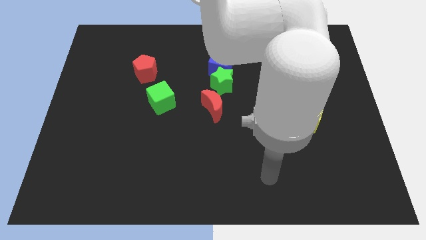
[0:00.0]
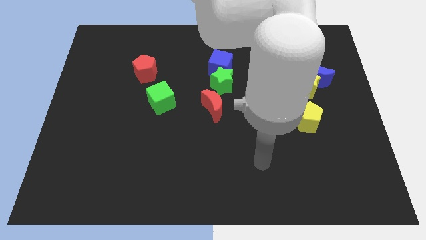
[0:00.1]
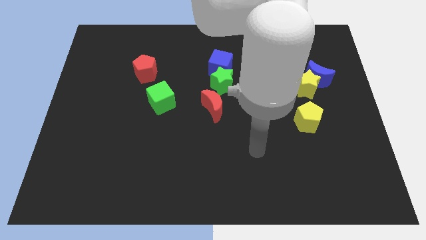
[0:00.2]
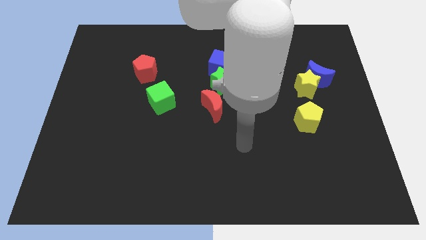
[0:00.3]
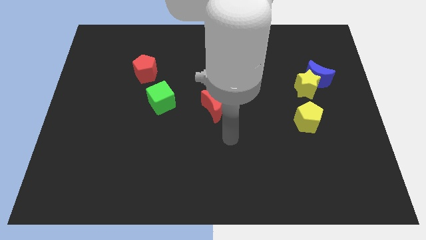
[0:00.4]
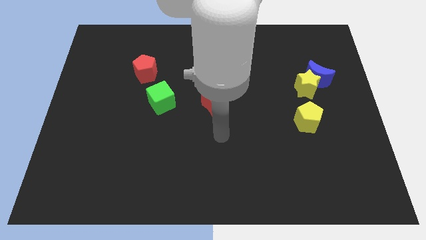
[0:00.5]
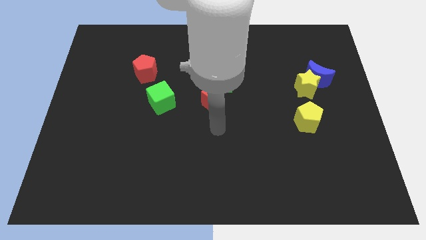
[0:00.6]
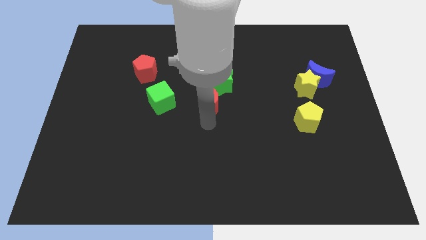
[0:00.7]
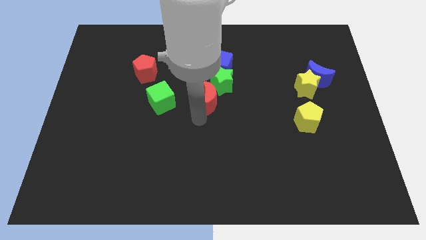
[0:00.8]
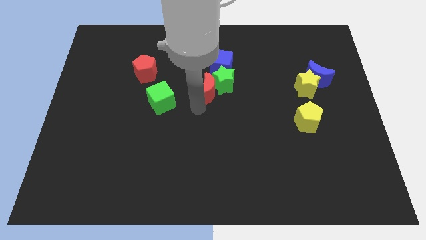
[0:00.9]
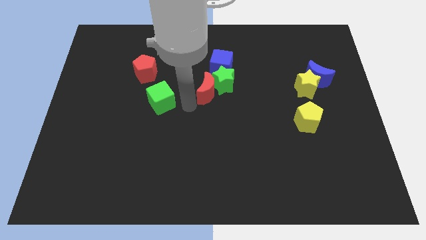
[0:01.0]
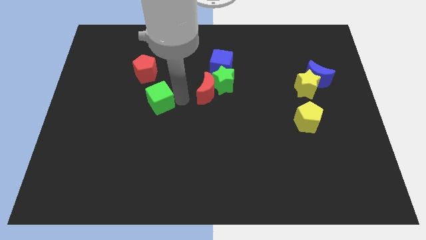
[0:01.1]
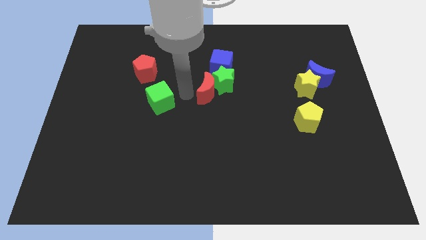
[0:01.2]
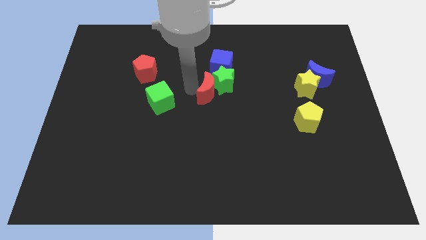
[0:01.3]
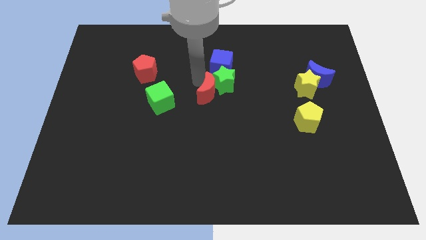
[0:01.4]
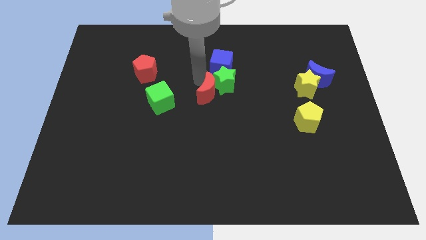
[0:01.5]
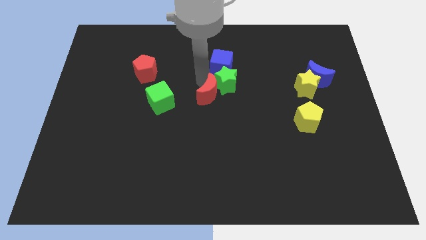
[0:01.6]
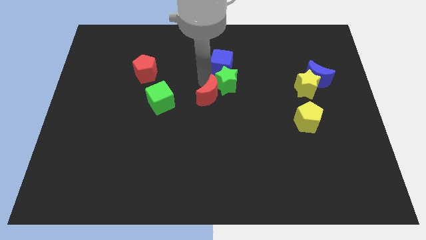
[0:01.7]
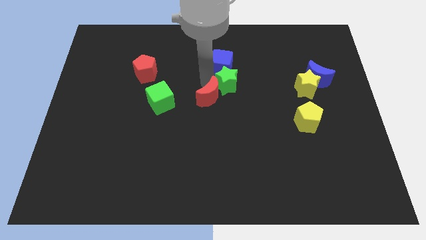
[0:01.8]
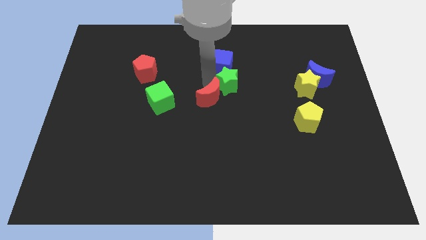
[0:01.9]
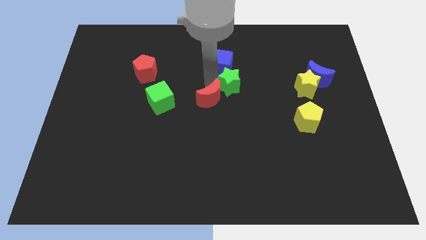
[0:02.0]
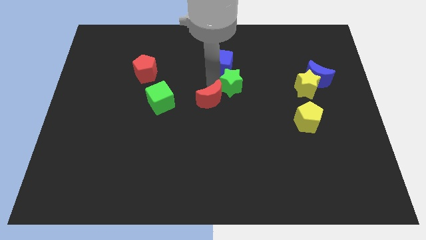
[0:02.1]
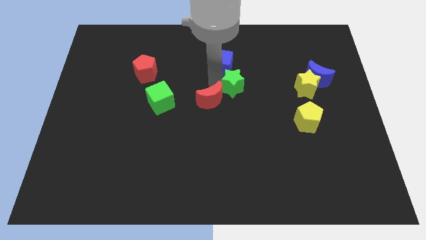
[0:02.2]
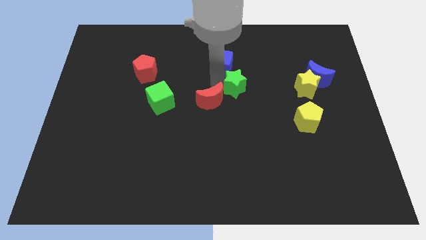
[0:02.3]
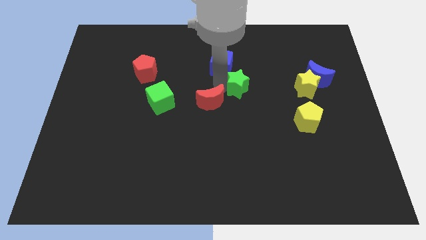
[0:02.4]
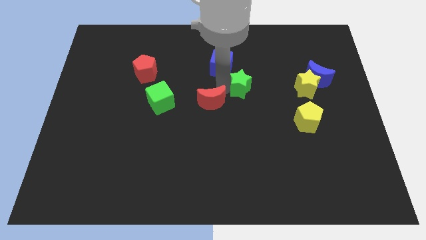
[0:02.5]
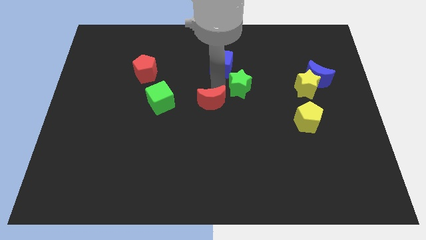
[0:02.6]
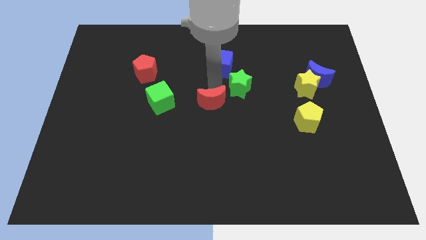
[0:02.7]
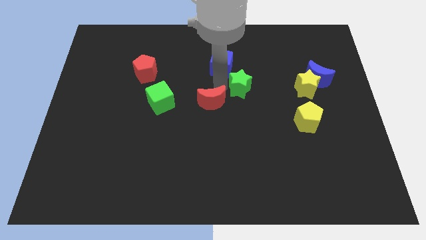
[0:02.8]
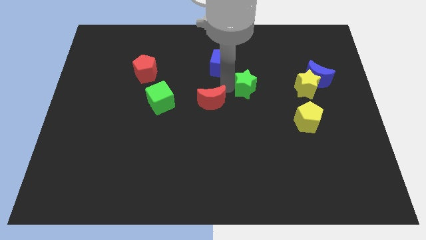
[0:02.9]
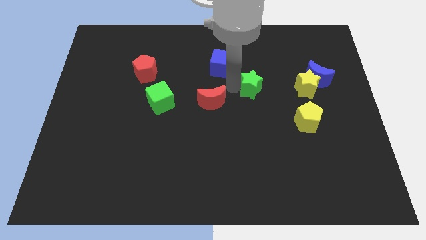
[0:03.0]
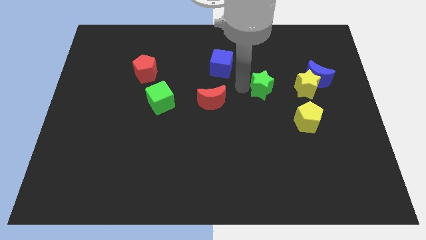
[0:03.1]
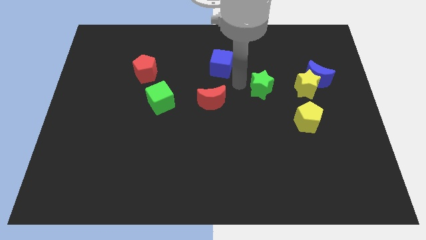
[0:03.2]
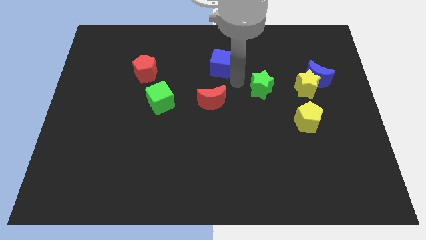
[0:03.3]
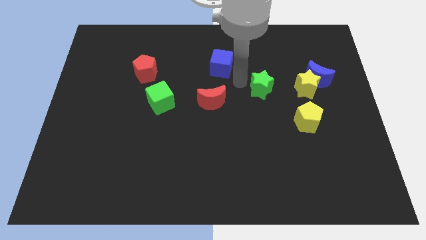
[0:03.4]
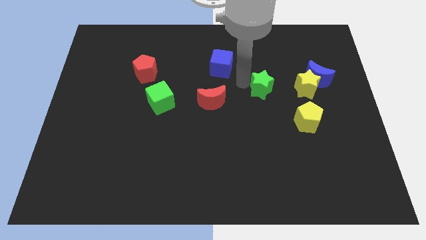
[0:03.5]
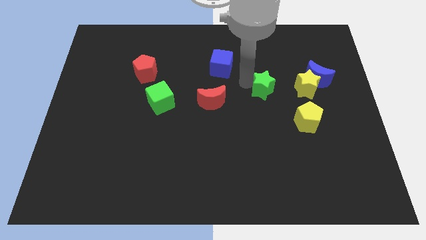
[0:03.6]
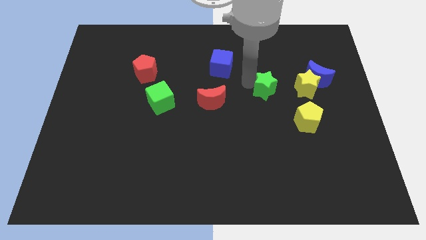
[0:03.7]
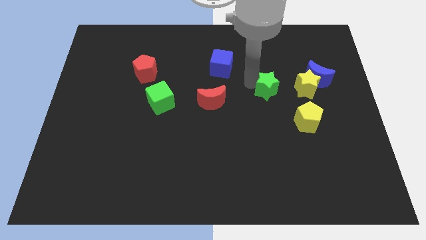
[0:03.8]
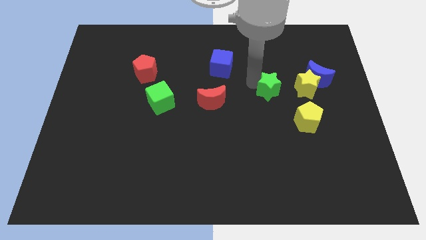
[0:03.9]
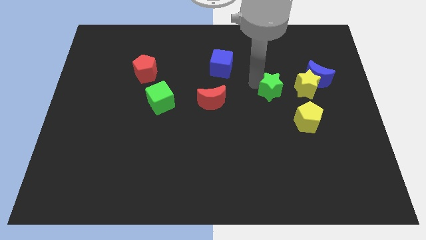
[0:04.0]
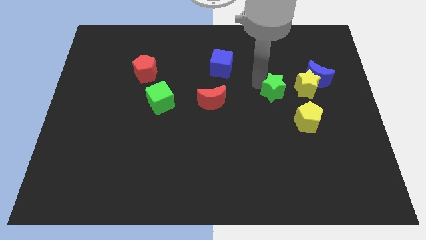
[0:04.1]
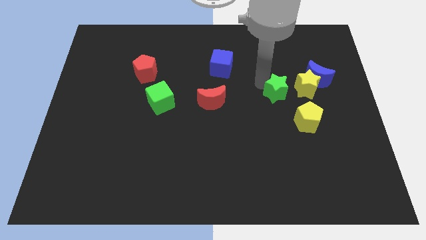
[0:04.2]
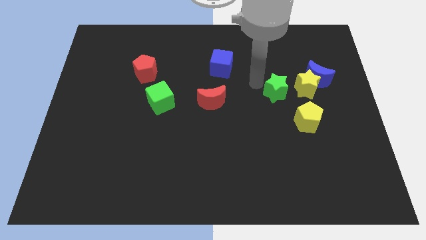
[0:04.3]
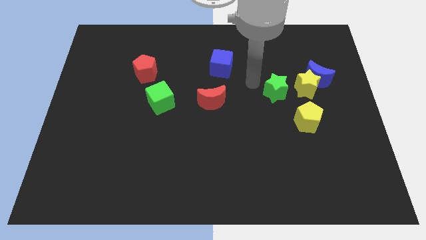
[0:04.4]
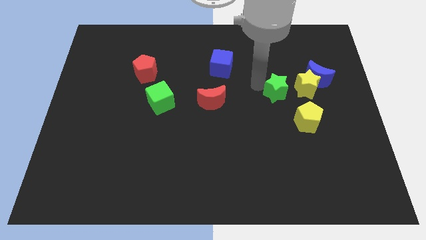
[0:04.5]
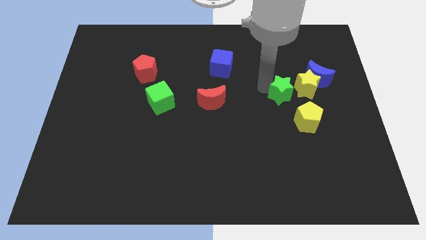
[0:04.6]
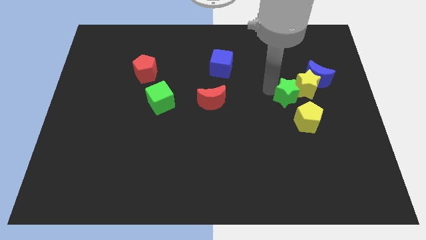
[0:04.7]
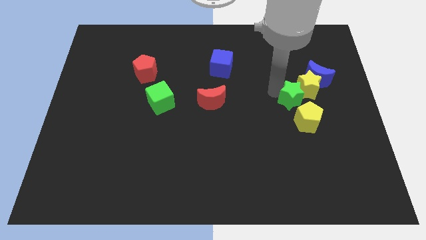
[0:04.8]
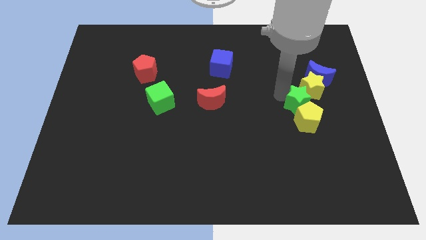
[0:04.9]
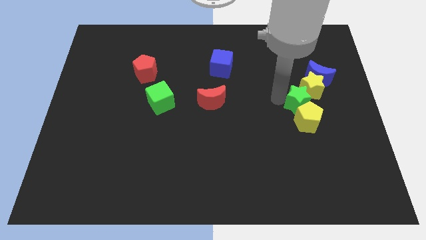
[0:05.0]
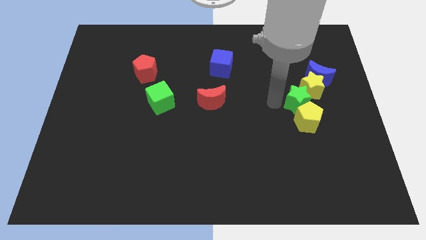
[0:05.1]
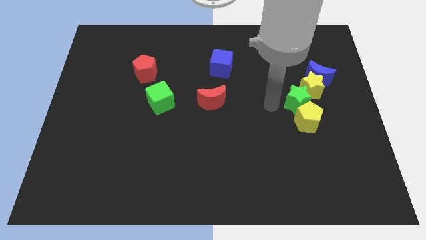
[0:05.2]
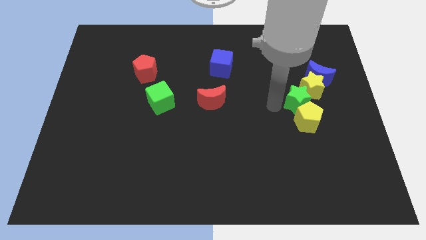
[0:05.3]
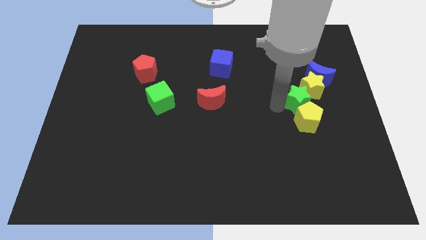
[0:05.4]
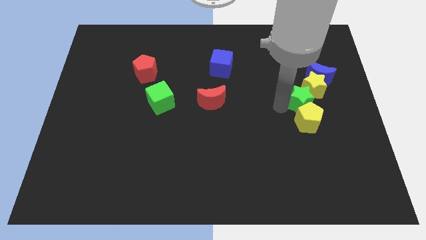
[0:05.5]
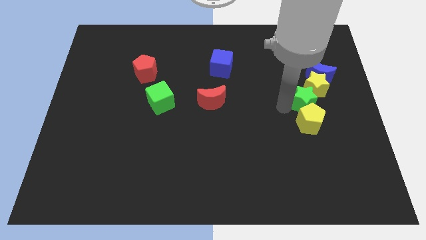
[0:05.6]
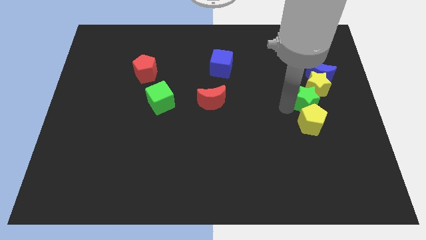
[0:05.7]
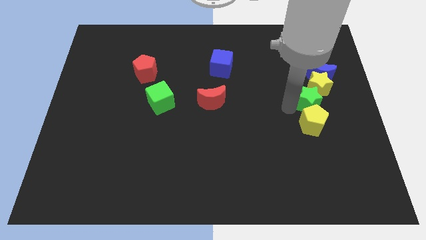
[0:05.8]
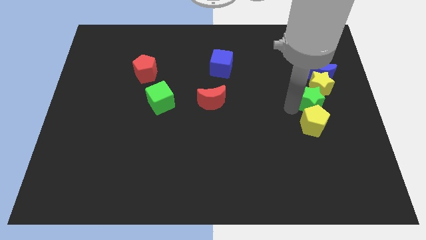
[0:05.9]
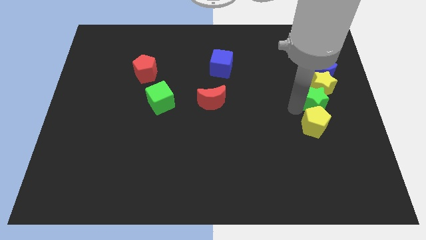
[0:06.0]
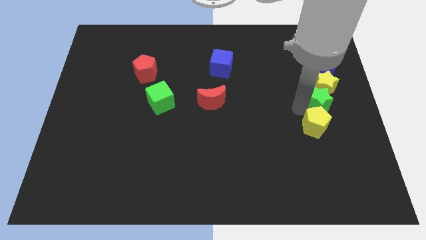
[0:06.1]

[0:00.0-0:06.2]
put the green star to the right side

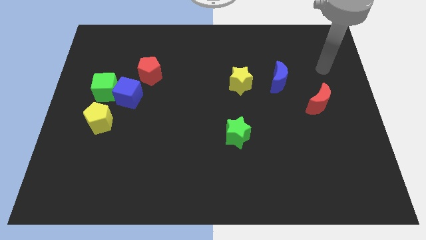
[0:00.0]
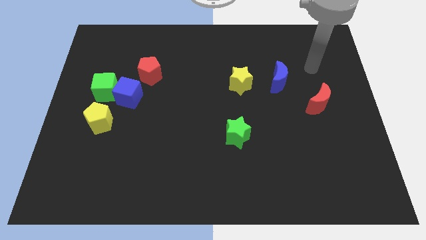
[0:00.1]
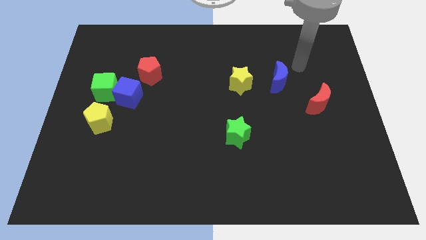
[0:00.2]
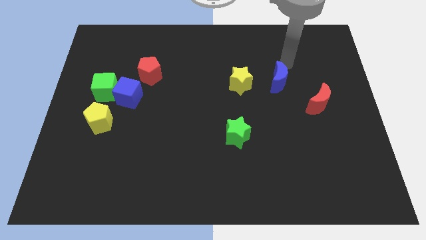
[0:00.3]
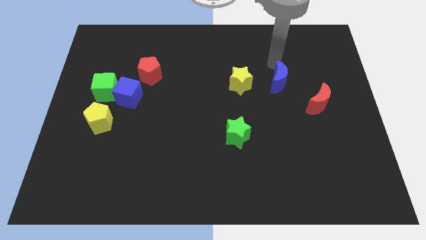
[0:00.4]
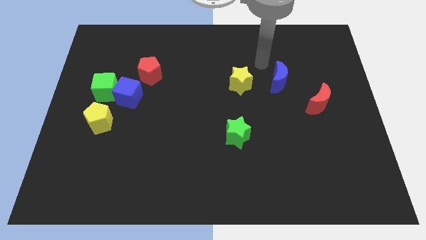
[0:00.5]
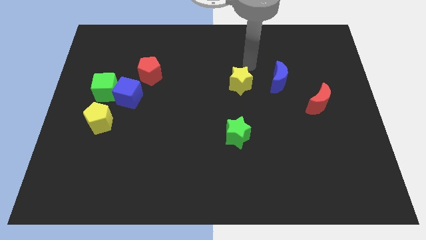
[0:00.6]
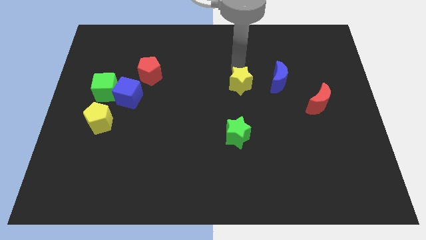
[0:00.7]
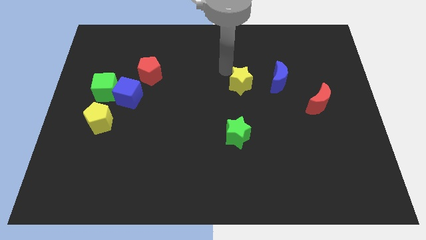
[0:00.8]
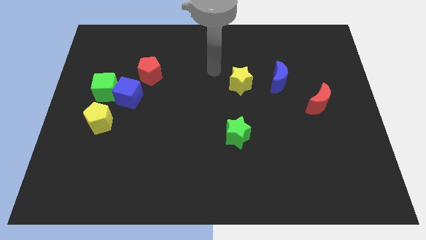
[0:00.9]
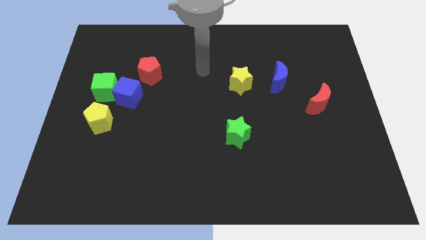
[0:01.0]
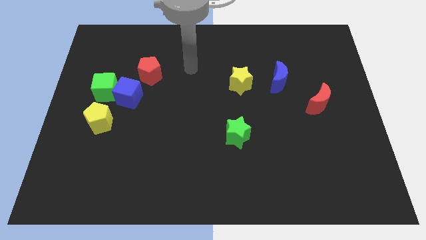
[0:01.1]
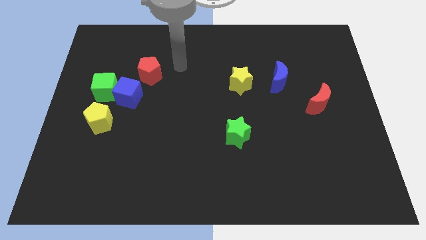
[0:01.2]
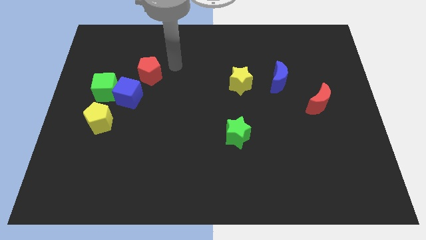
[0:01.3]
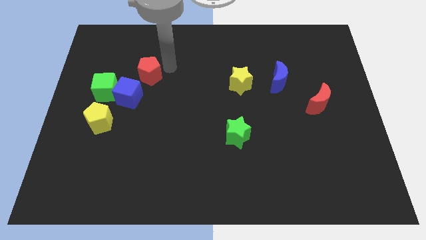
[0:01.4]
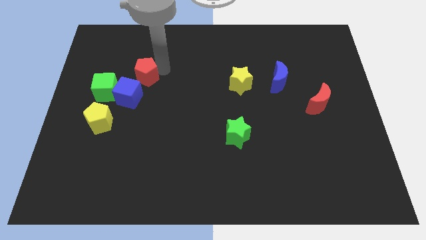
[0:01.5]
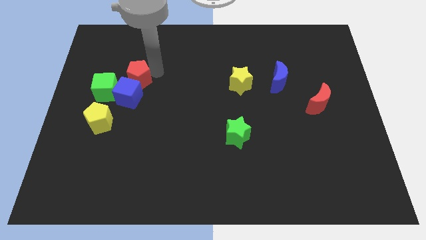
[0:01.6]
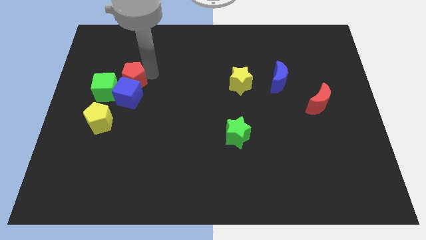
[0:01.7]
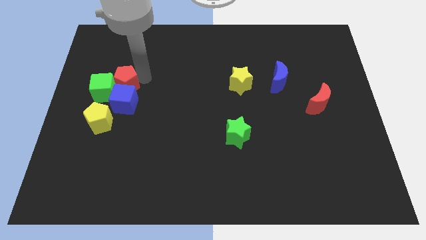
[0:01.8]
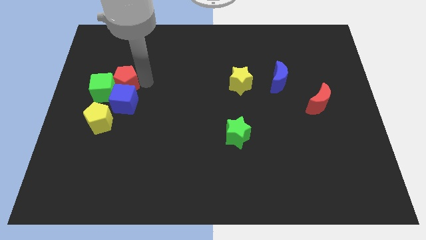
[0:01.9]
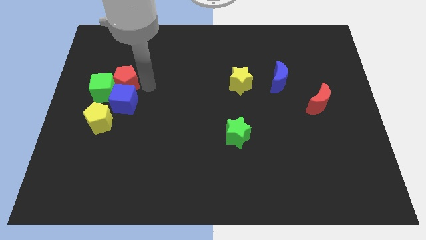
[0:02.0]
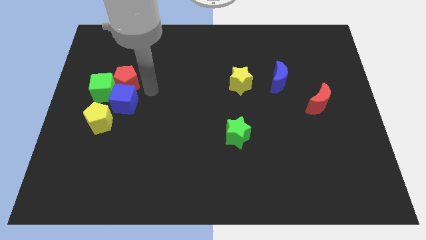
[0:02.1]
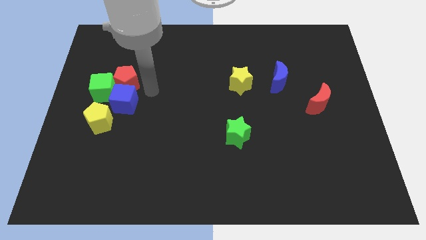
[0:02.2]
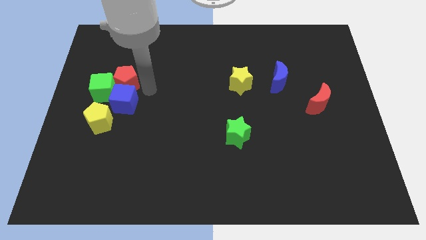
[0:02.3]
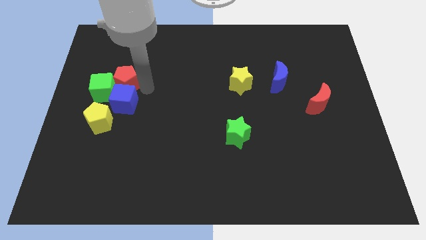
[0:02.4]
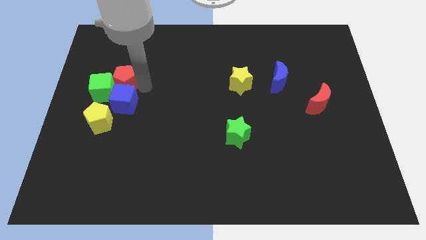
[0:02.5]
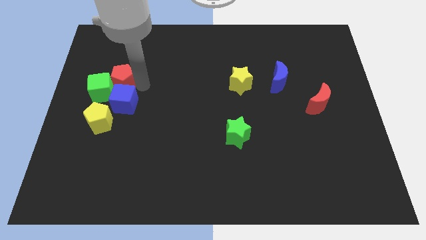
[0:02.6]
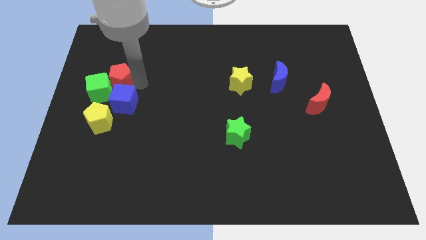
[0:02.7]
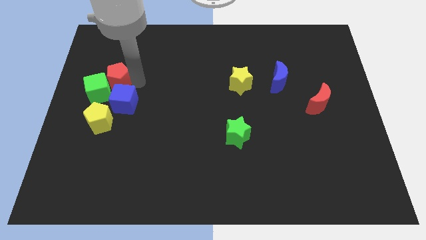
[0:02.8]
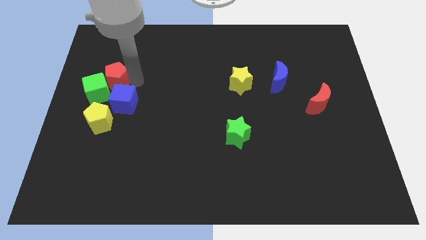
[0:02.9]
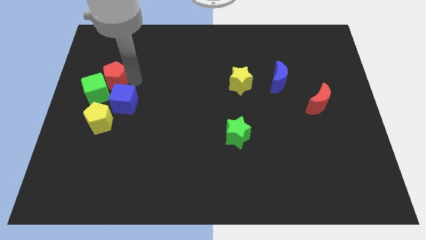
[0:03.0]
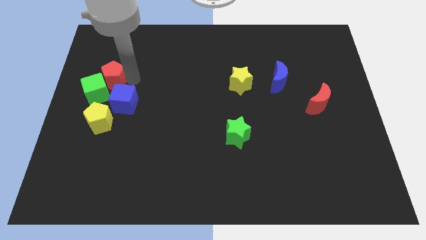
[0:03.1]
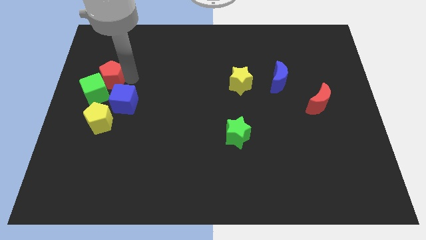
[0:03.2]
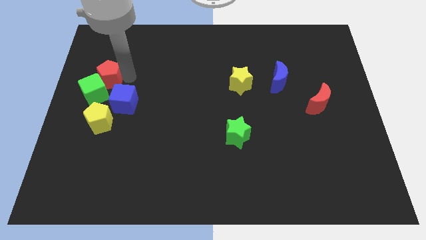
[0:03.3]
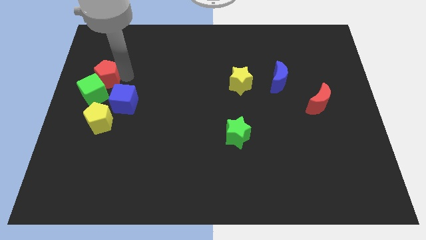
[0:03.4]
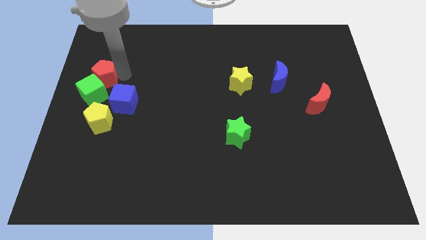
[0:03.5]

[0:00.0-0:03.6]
slide the red pentagon to the center left
